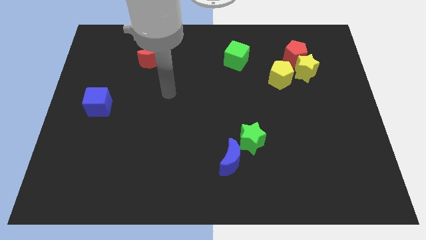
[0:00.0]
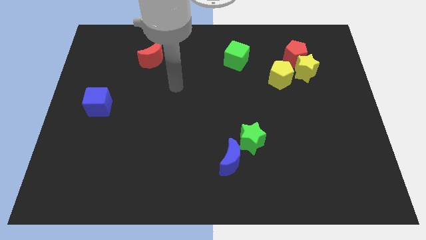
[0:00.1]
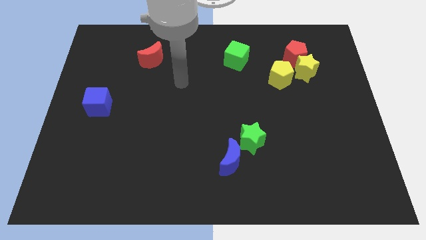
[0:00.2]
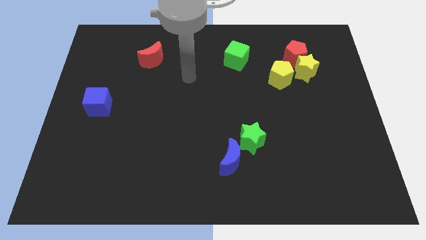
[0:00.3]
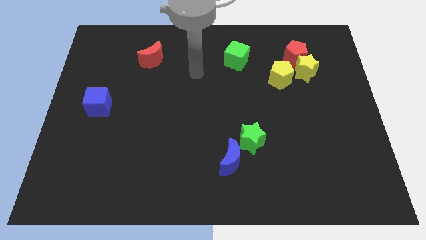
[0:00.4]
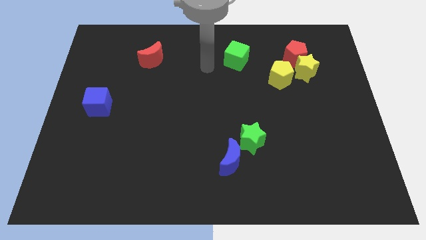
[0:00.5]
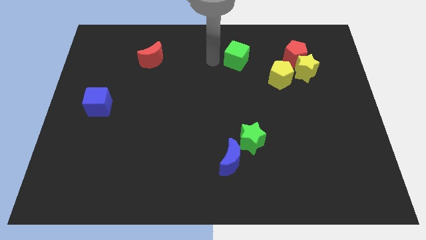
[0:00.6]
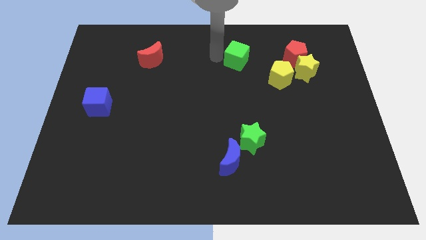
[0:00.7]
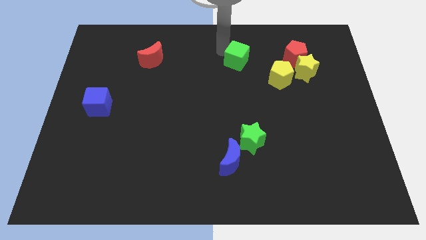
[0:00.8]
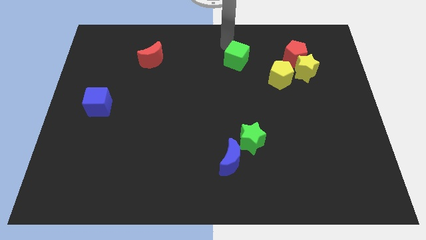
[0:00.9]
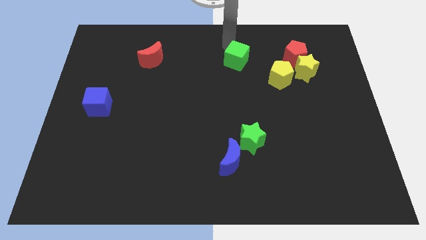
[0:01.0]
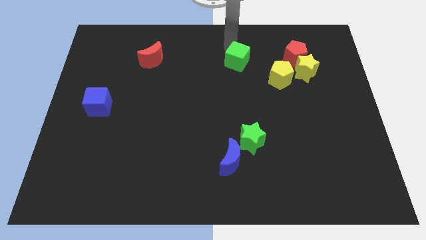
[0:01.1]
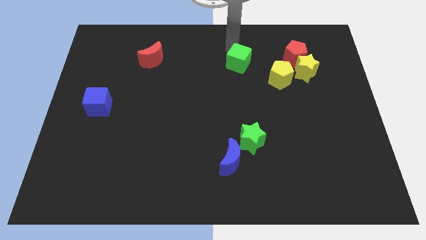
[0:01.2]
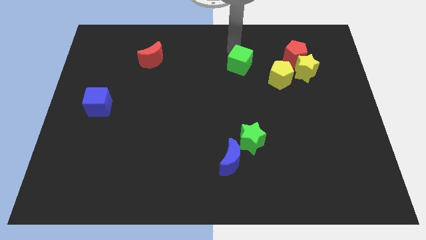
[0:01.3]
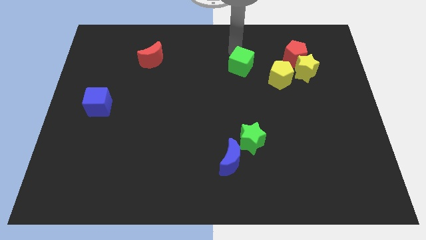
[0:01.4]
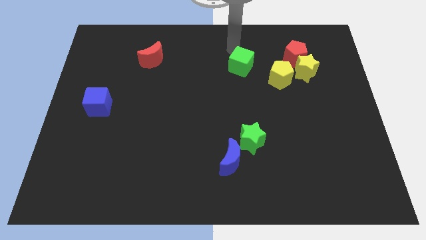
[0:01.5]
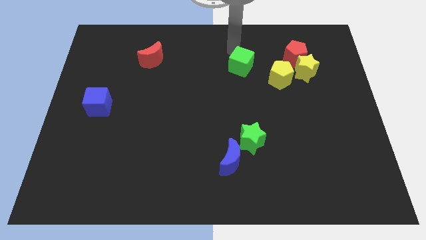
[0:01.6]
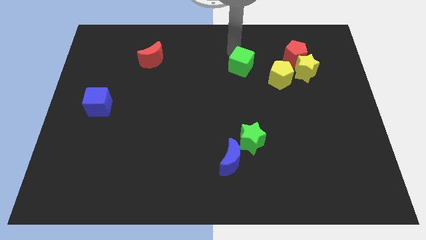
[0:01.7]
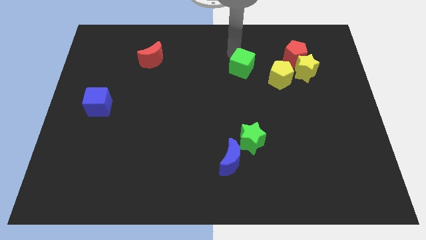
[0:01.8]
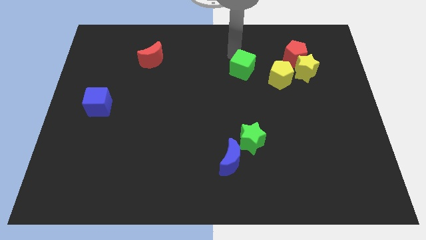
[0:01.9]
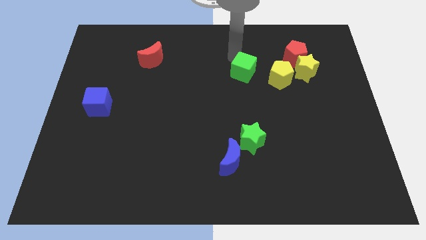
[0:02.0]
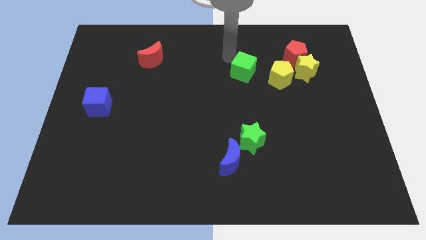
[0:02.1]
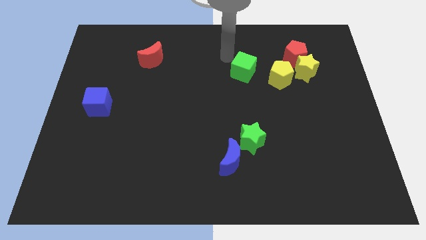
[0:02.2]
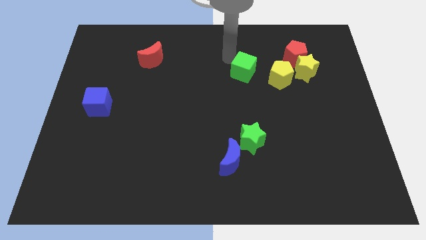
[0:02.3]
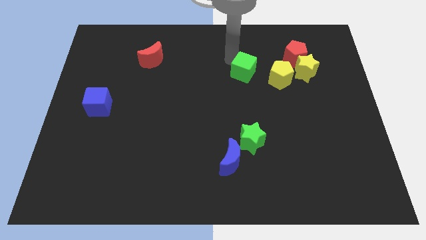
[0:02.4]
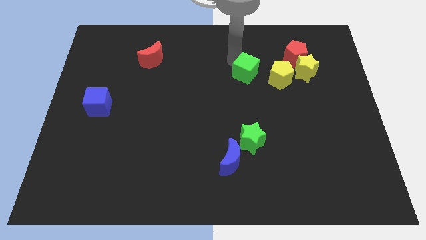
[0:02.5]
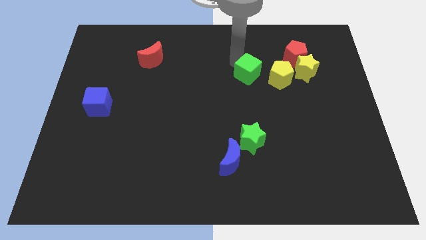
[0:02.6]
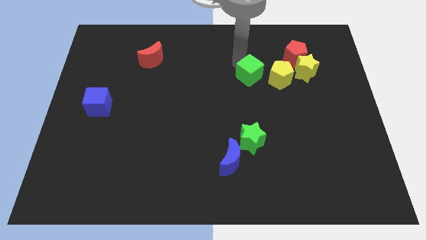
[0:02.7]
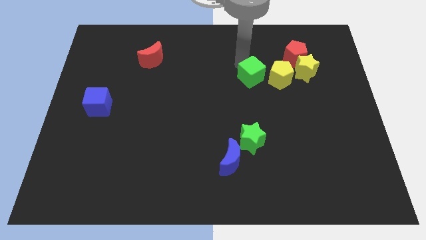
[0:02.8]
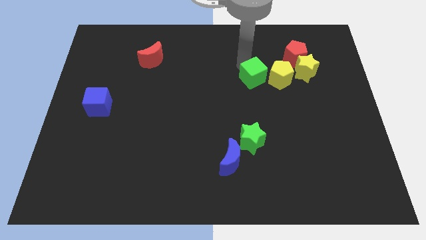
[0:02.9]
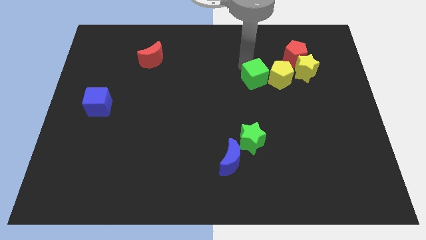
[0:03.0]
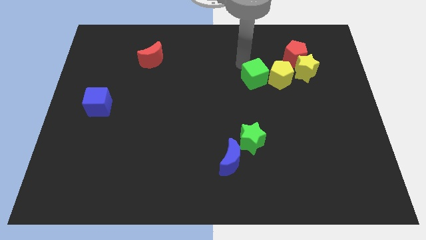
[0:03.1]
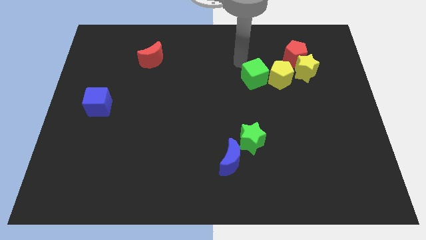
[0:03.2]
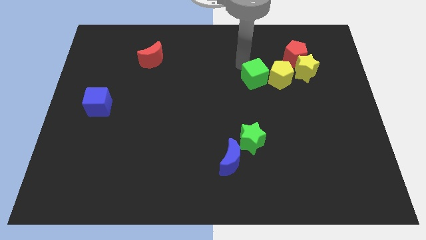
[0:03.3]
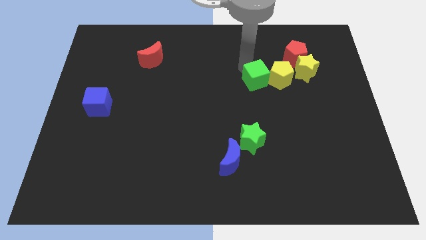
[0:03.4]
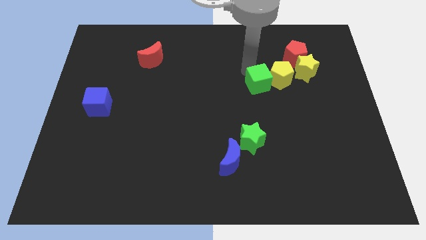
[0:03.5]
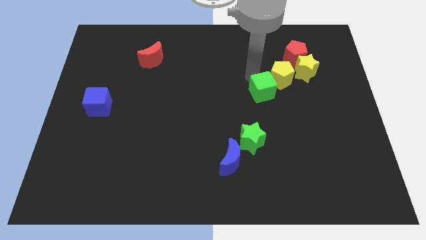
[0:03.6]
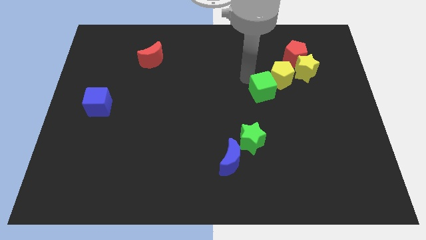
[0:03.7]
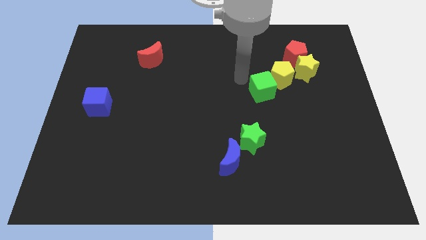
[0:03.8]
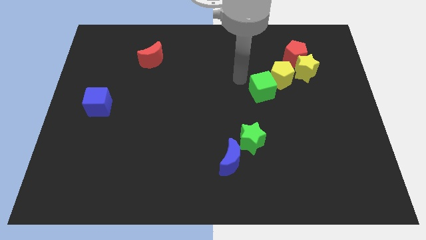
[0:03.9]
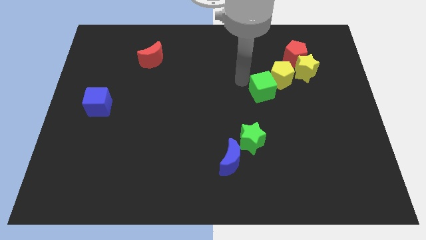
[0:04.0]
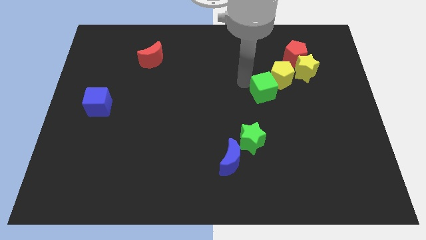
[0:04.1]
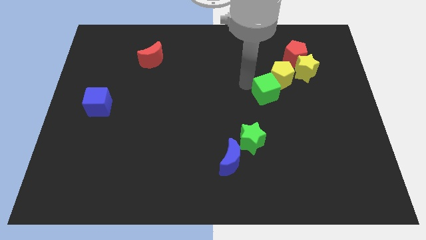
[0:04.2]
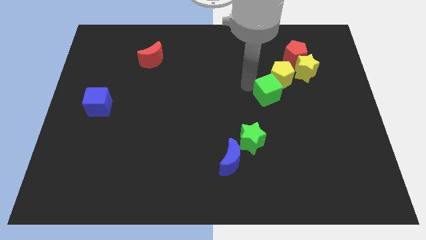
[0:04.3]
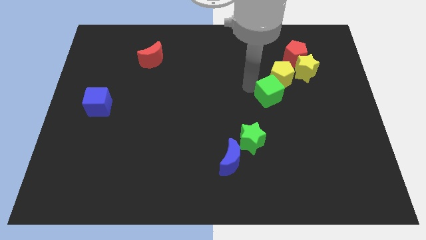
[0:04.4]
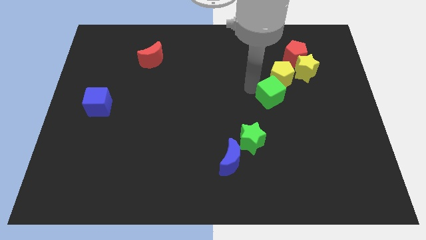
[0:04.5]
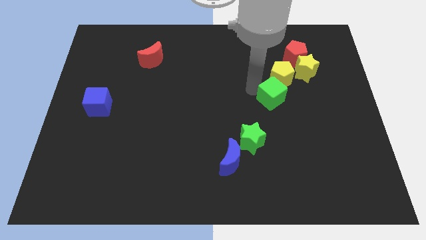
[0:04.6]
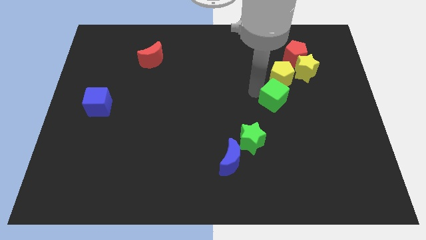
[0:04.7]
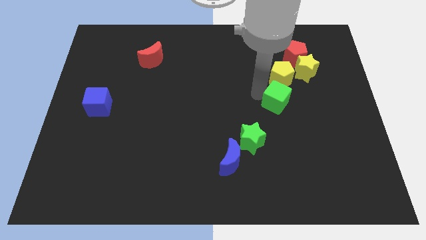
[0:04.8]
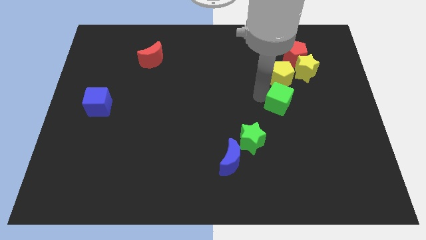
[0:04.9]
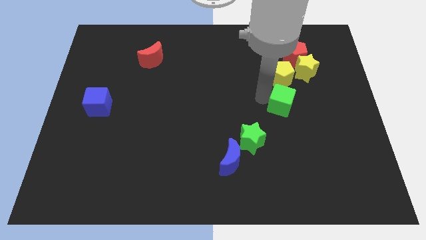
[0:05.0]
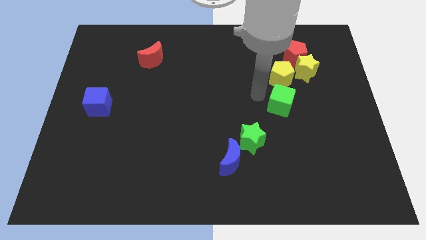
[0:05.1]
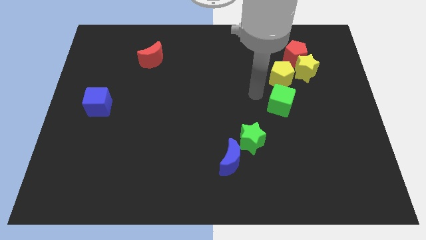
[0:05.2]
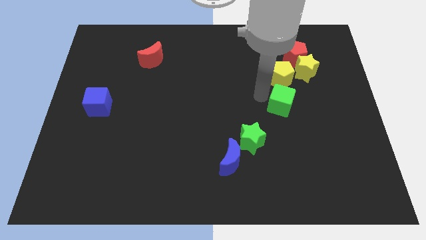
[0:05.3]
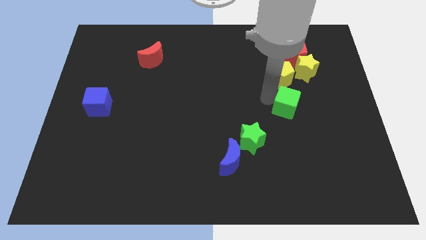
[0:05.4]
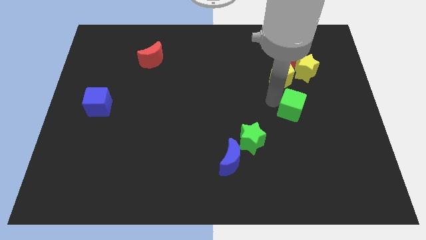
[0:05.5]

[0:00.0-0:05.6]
slide the green cube downwards and then to the right

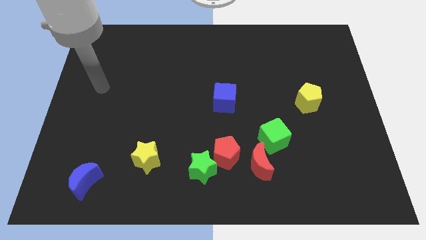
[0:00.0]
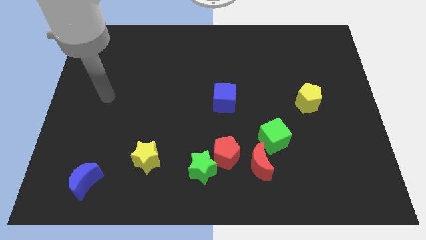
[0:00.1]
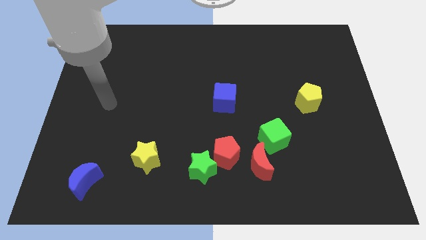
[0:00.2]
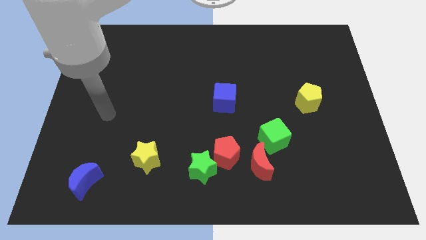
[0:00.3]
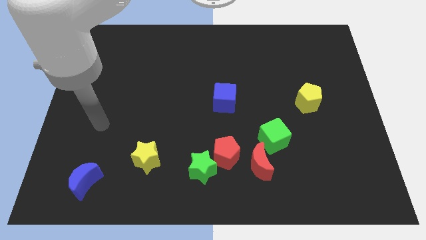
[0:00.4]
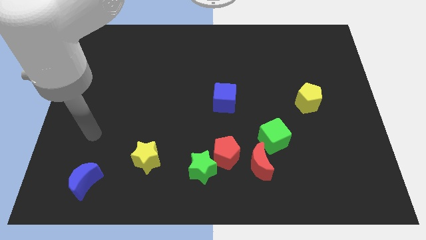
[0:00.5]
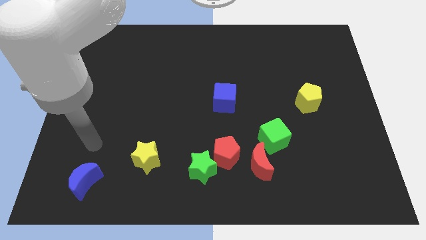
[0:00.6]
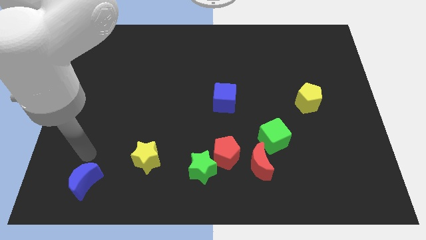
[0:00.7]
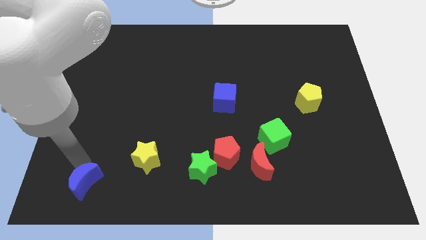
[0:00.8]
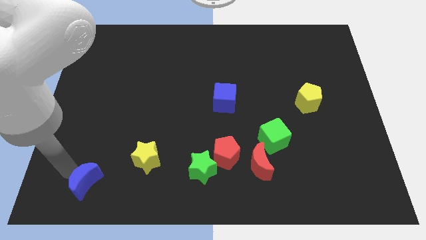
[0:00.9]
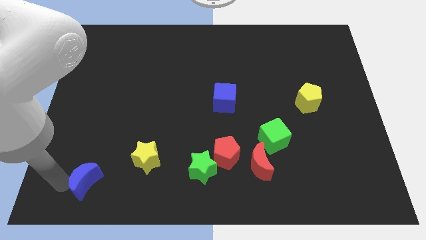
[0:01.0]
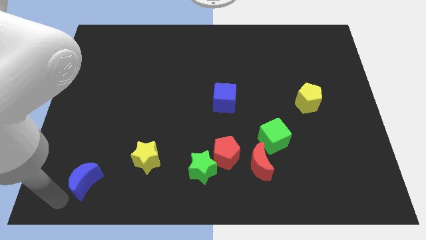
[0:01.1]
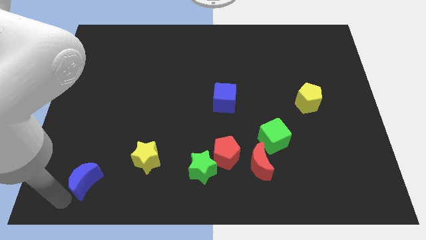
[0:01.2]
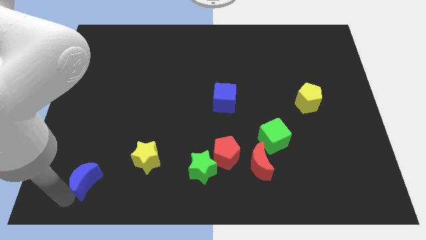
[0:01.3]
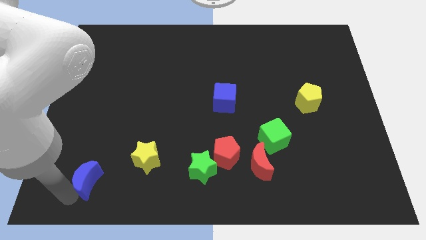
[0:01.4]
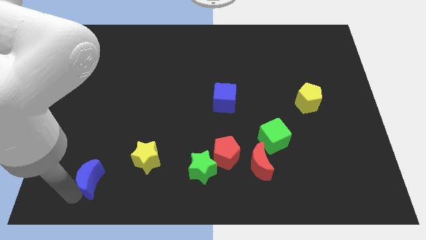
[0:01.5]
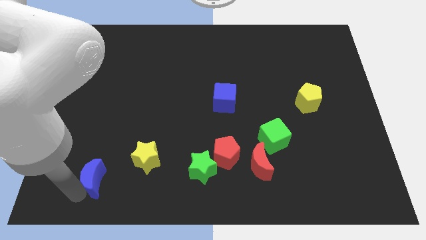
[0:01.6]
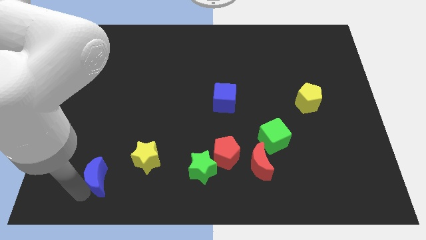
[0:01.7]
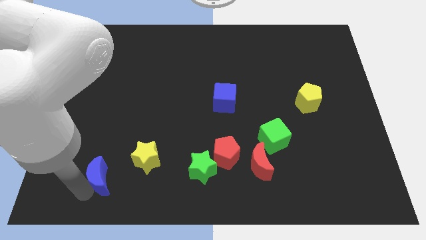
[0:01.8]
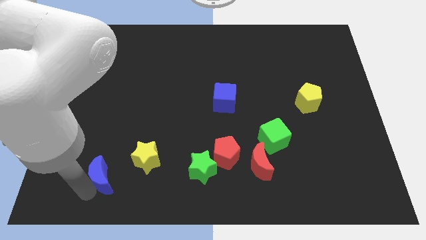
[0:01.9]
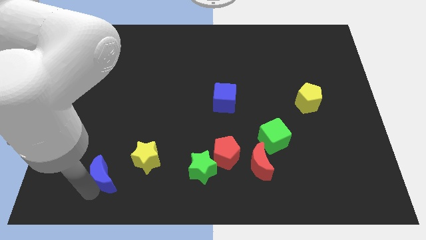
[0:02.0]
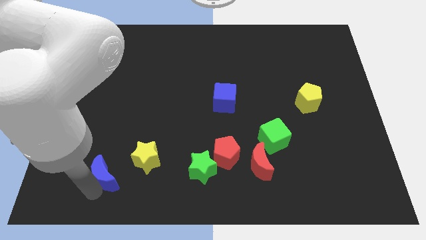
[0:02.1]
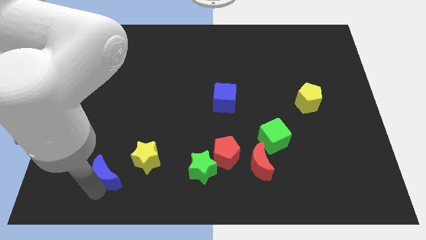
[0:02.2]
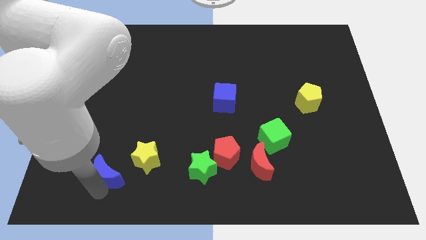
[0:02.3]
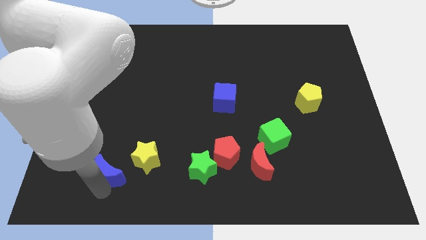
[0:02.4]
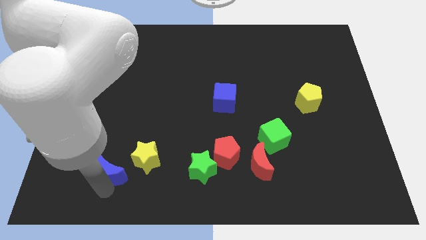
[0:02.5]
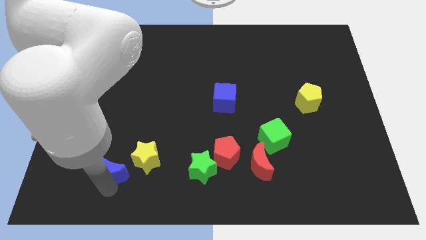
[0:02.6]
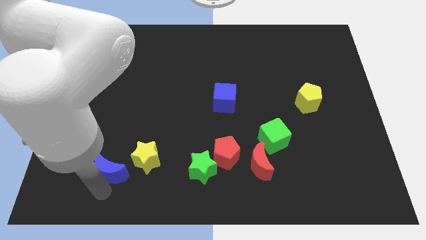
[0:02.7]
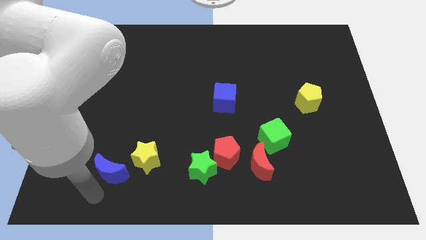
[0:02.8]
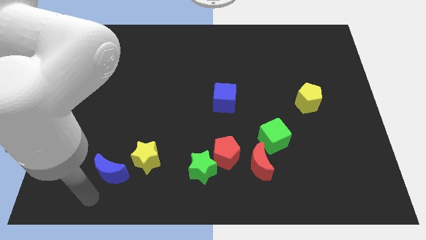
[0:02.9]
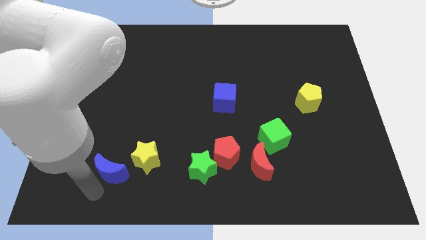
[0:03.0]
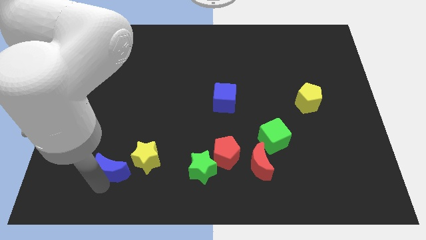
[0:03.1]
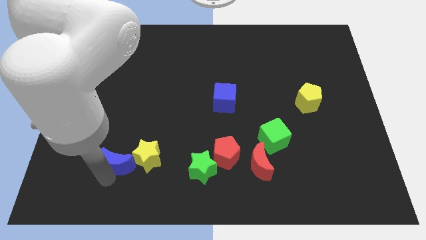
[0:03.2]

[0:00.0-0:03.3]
push the blue moon diagonally up and right a little
